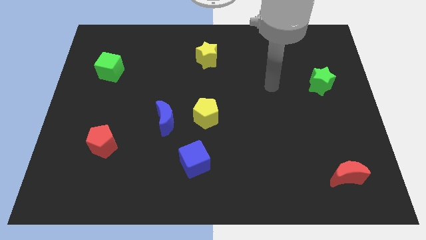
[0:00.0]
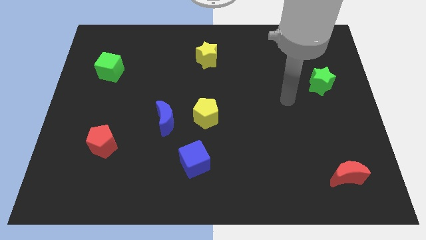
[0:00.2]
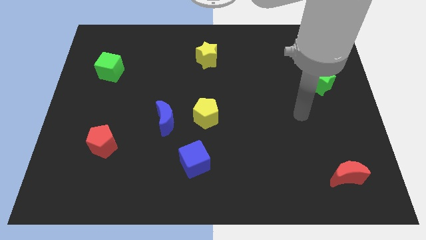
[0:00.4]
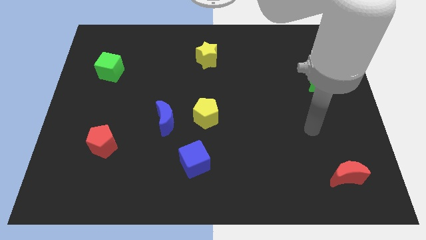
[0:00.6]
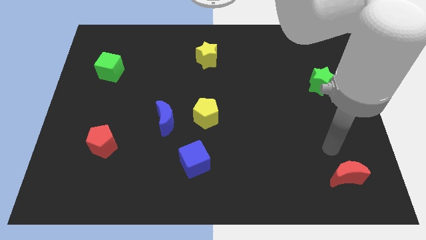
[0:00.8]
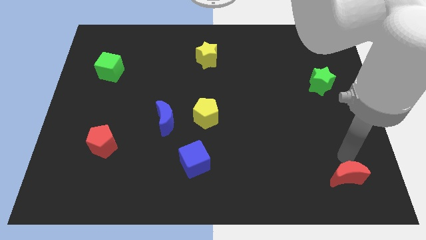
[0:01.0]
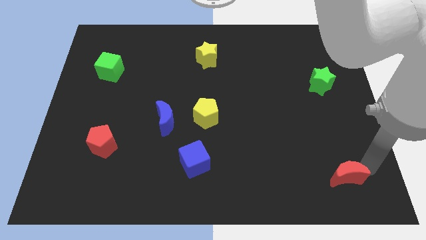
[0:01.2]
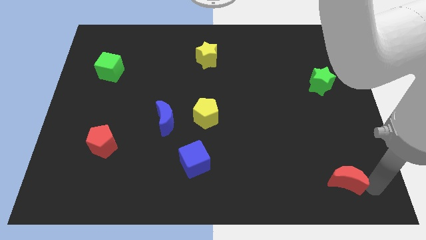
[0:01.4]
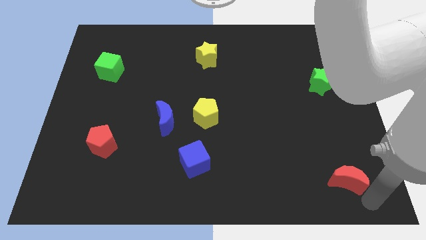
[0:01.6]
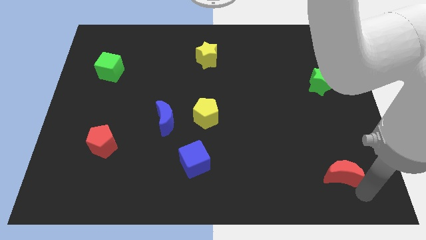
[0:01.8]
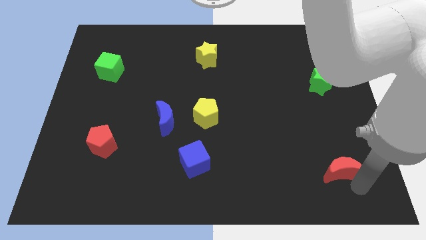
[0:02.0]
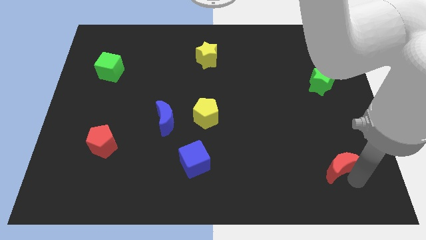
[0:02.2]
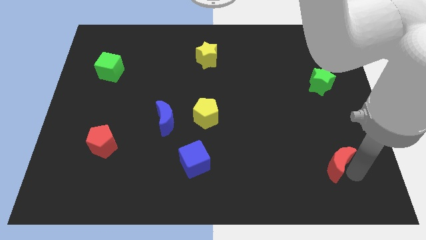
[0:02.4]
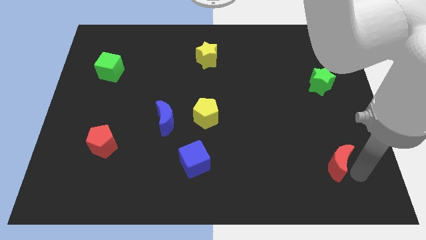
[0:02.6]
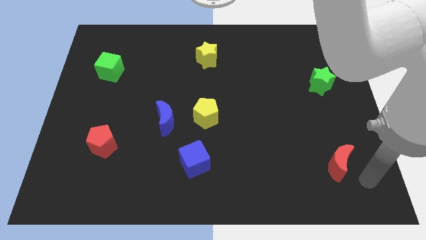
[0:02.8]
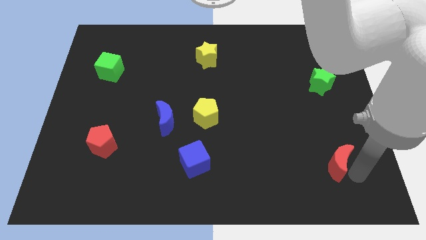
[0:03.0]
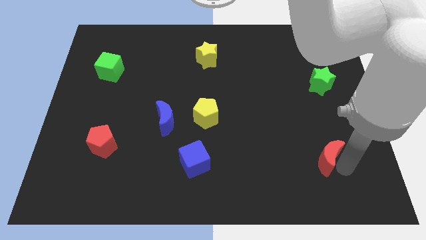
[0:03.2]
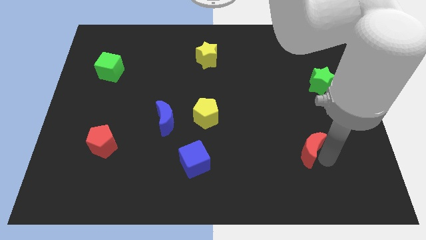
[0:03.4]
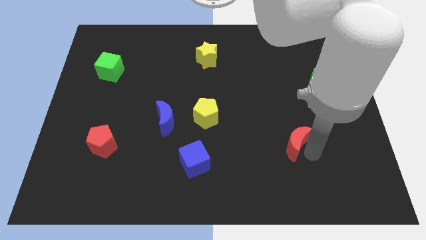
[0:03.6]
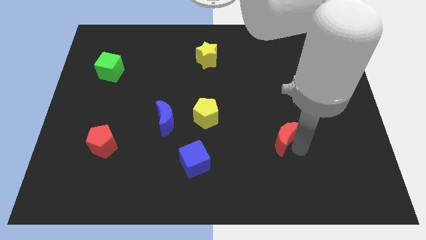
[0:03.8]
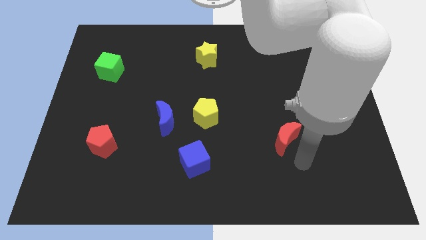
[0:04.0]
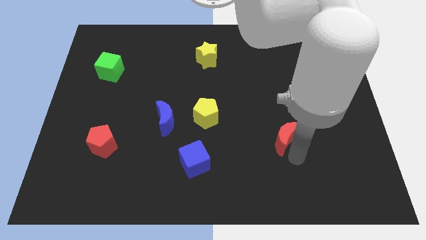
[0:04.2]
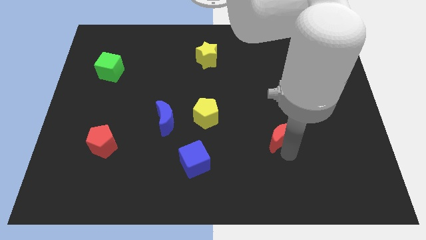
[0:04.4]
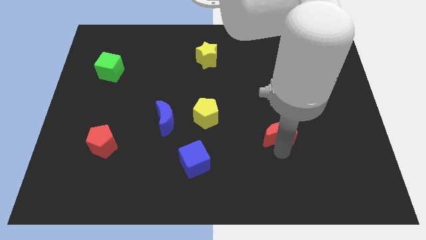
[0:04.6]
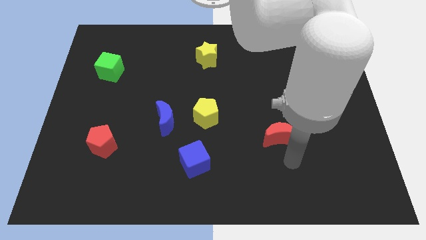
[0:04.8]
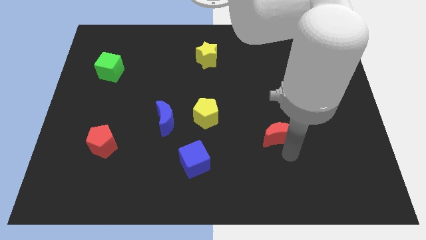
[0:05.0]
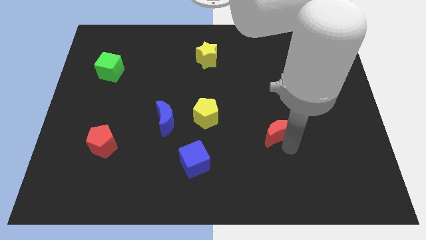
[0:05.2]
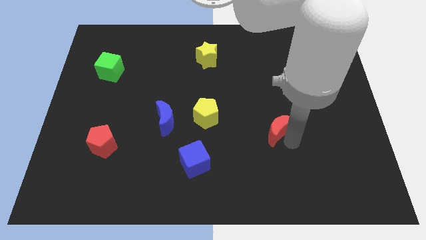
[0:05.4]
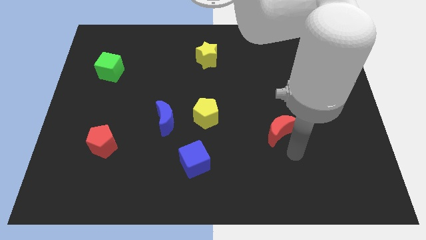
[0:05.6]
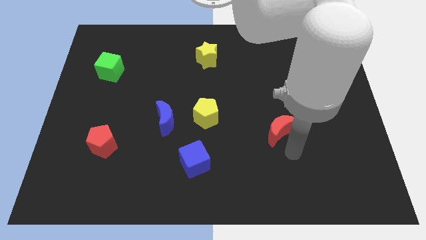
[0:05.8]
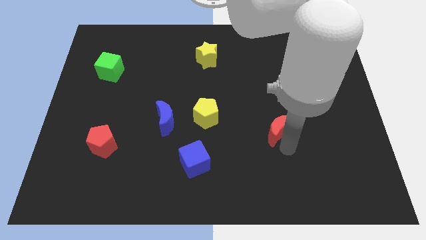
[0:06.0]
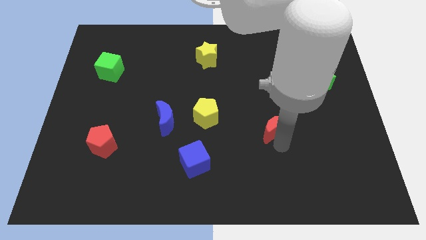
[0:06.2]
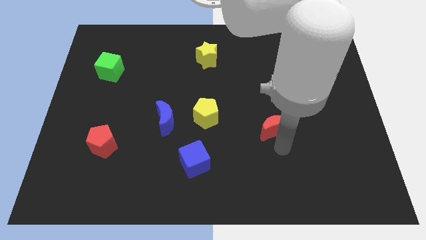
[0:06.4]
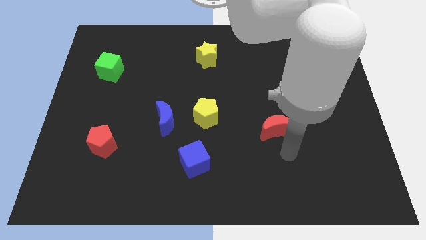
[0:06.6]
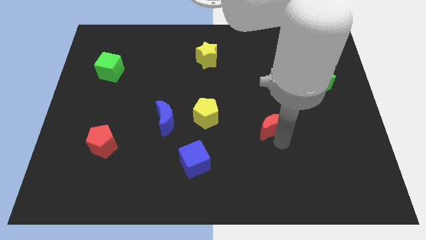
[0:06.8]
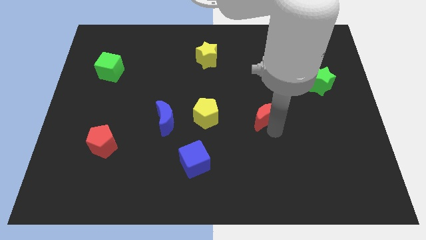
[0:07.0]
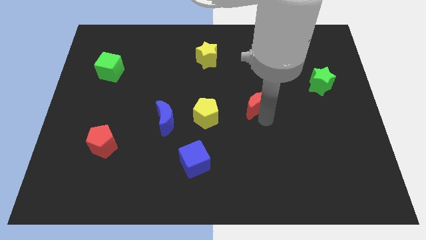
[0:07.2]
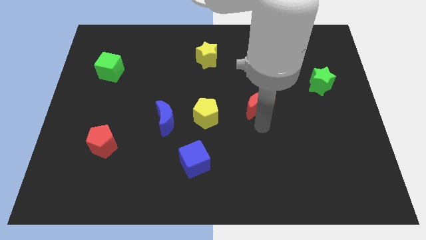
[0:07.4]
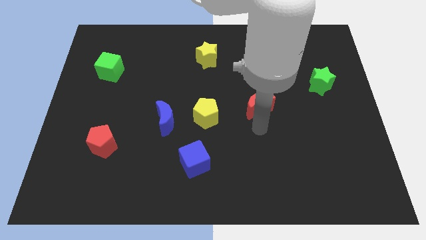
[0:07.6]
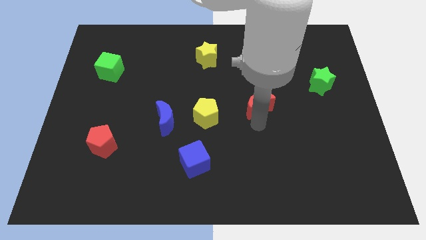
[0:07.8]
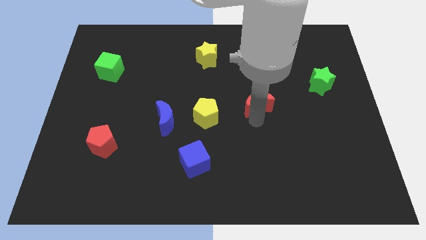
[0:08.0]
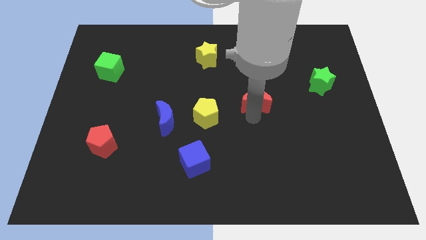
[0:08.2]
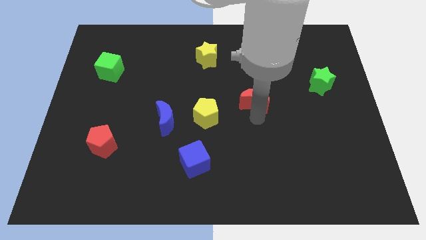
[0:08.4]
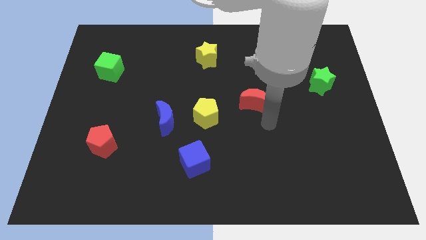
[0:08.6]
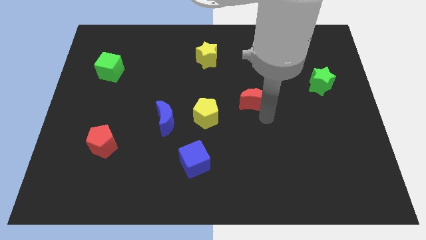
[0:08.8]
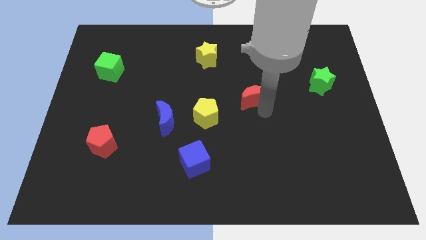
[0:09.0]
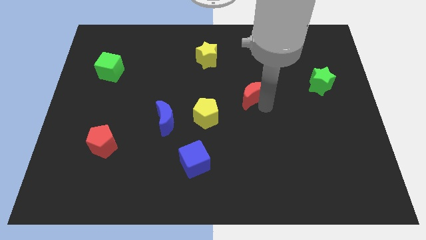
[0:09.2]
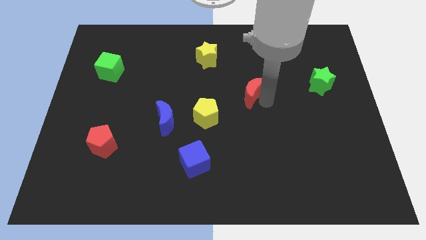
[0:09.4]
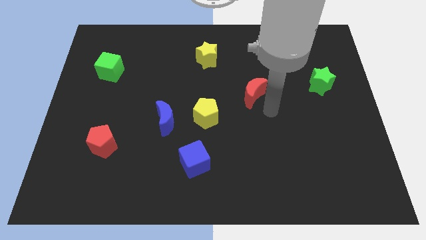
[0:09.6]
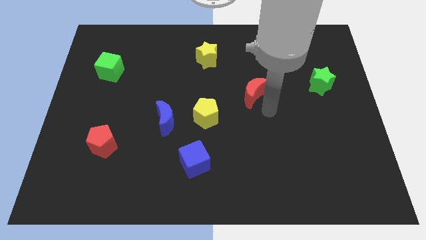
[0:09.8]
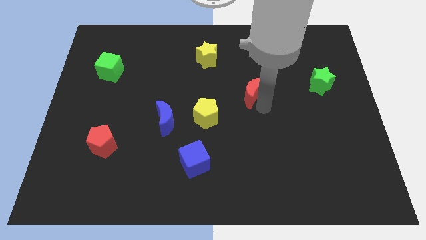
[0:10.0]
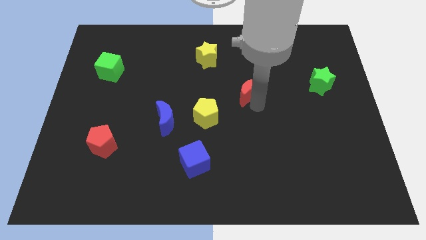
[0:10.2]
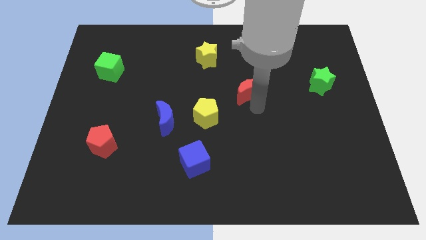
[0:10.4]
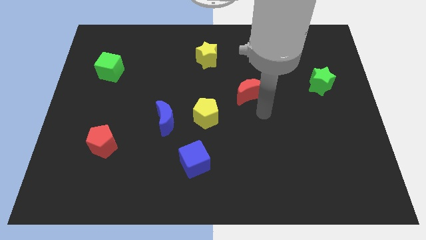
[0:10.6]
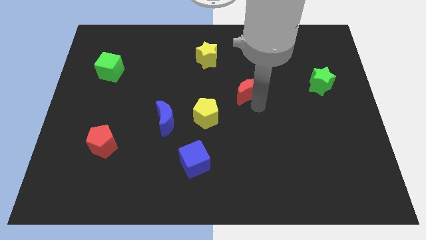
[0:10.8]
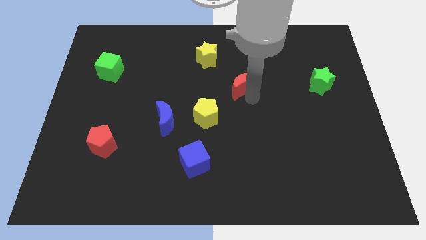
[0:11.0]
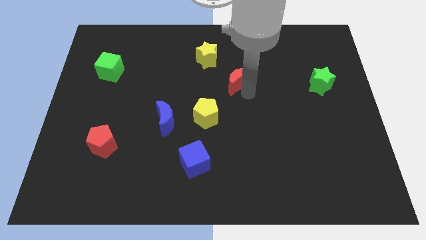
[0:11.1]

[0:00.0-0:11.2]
move the red moon to the bottom right of the yellow star
